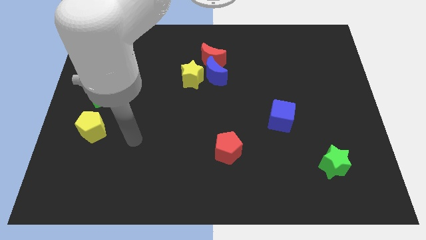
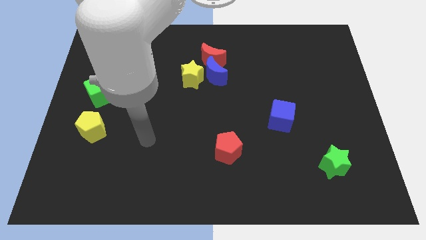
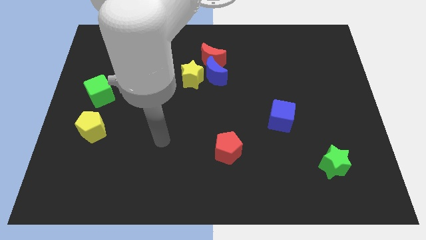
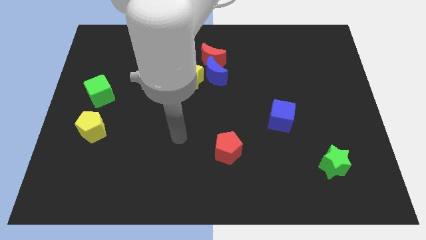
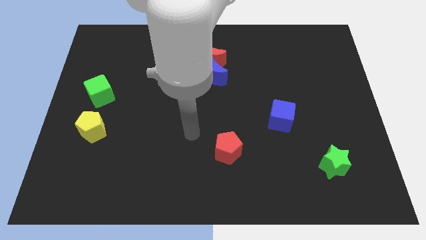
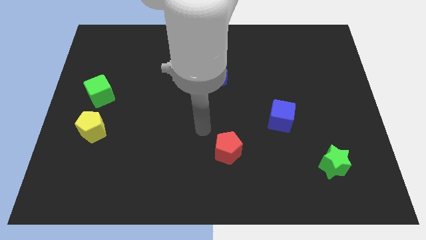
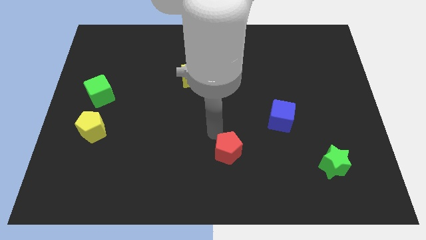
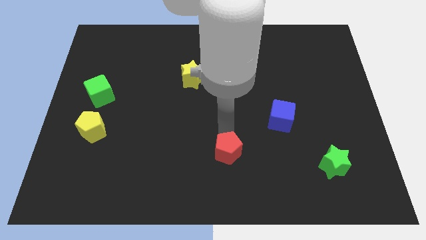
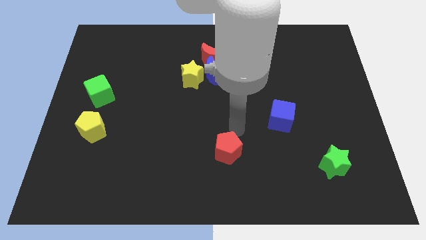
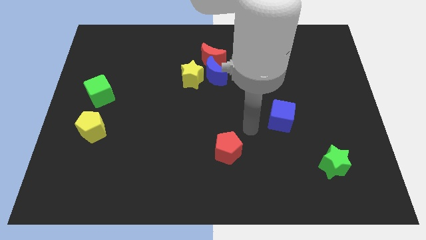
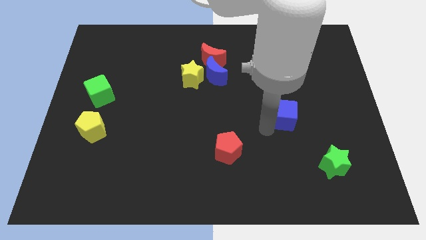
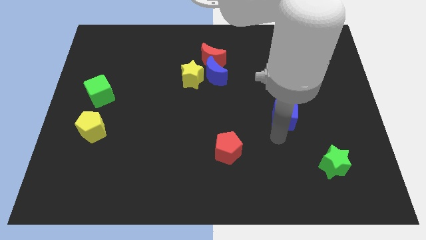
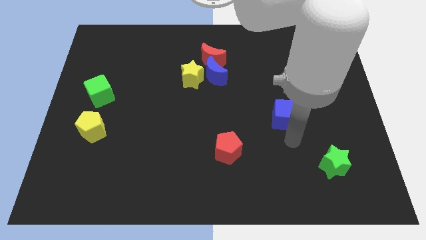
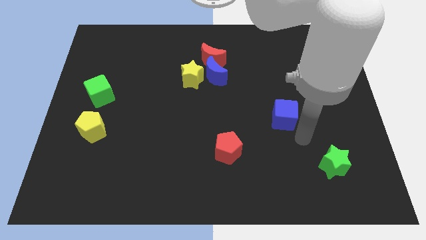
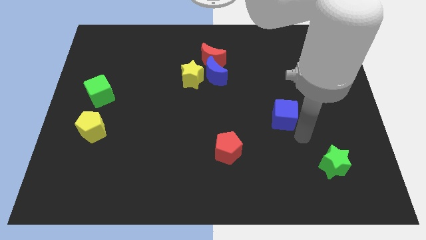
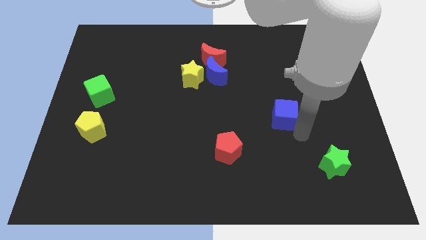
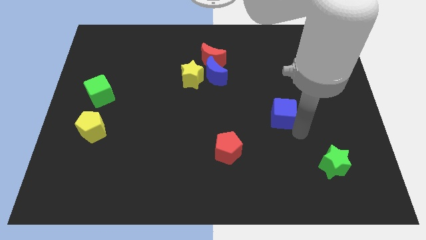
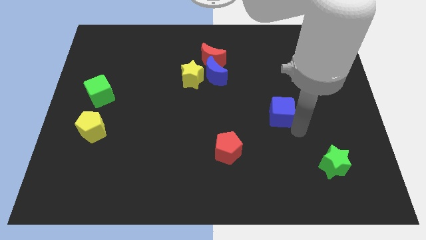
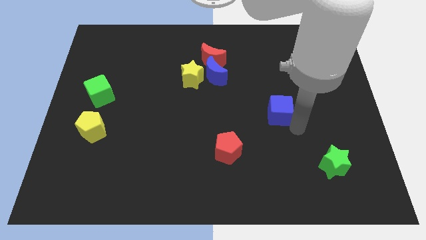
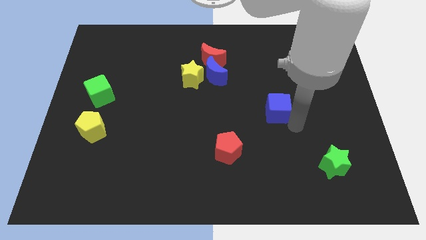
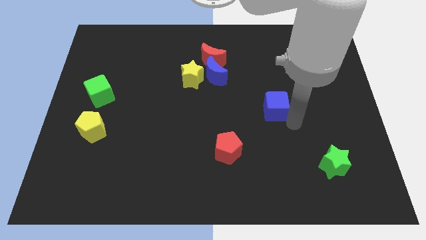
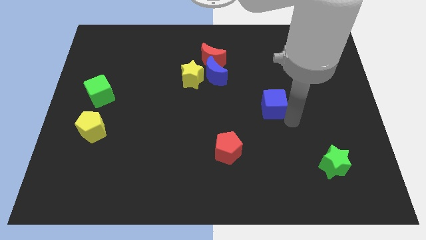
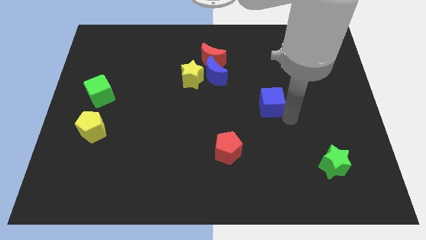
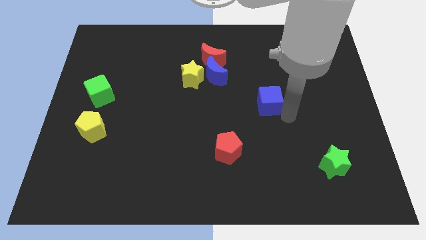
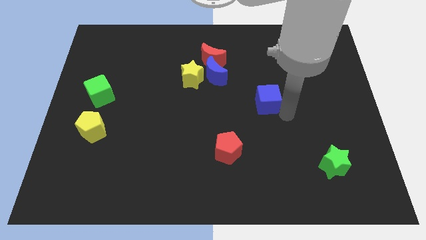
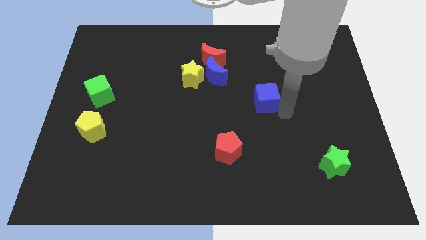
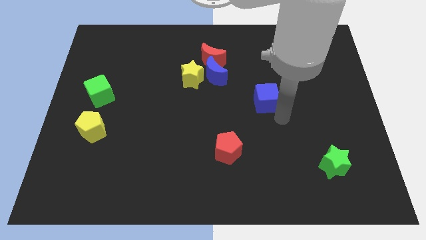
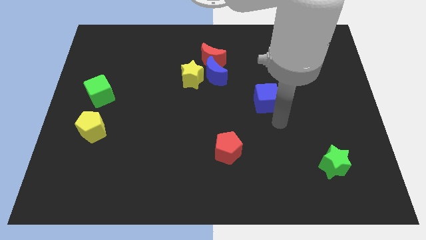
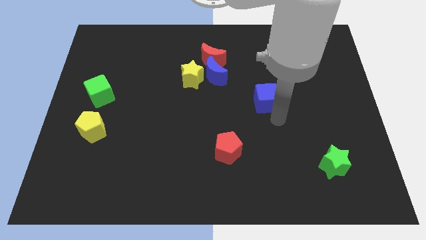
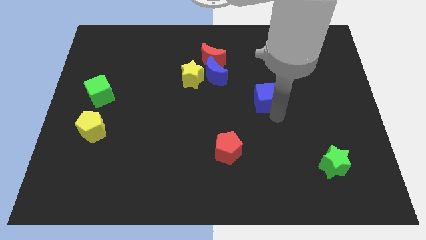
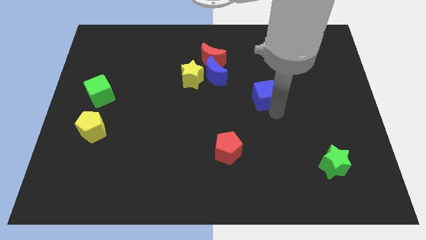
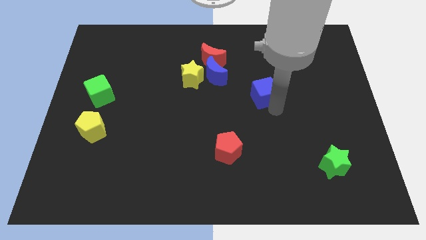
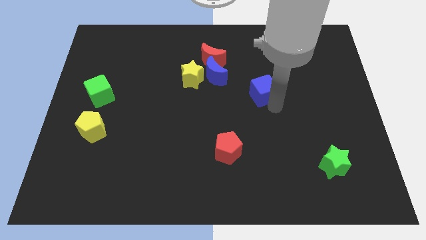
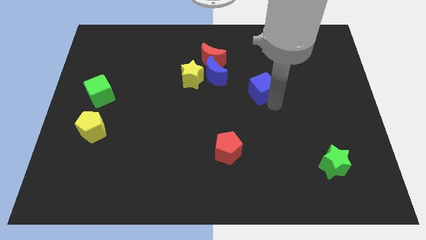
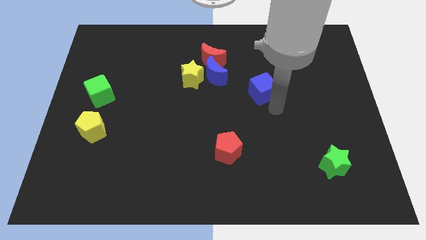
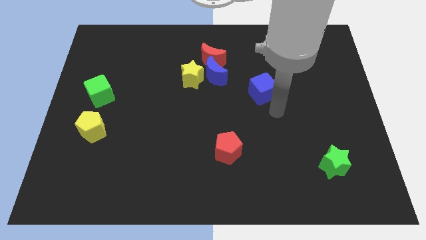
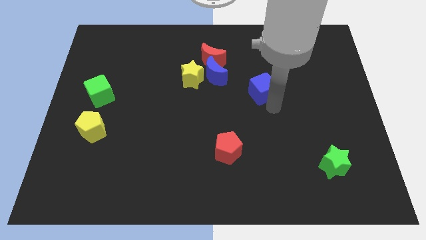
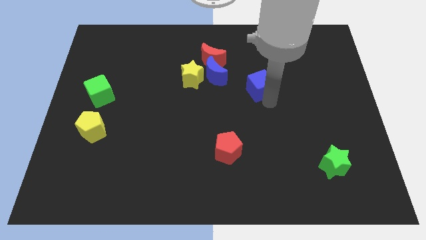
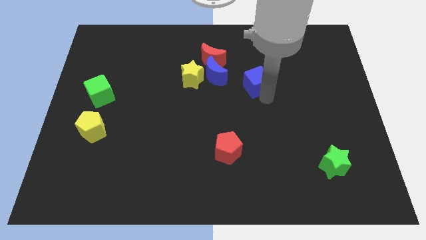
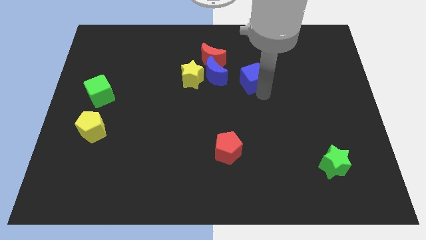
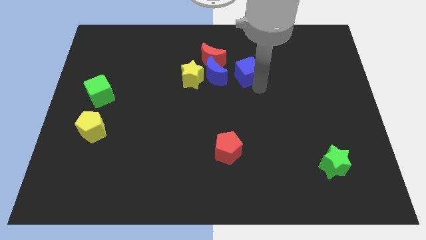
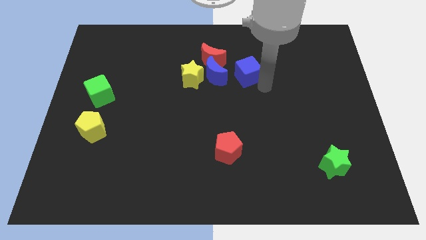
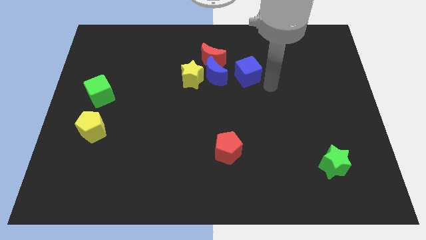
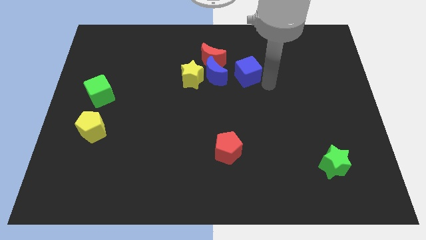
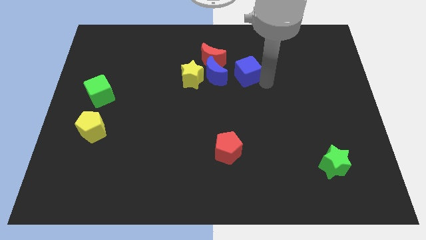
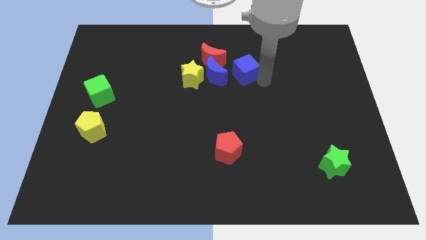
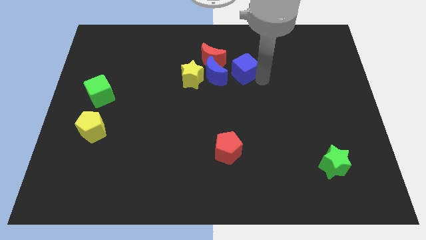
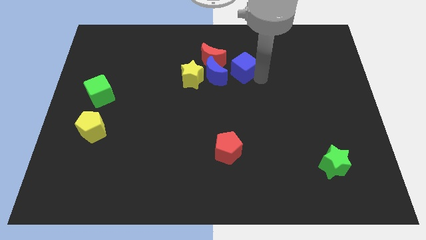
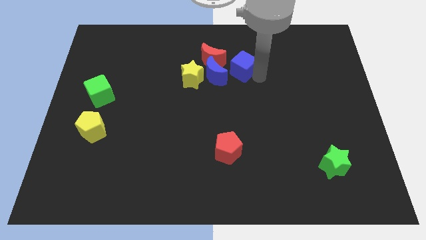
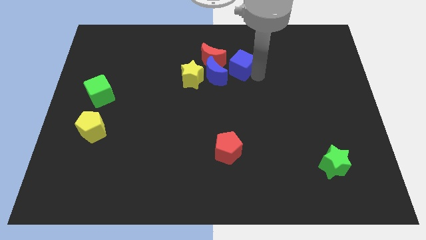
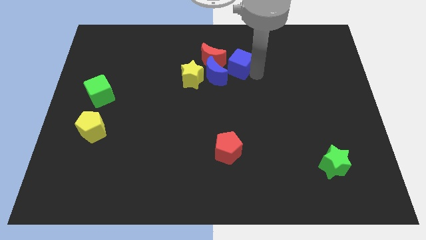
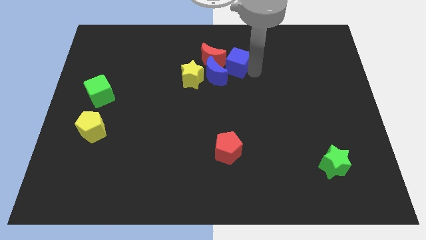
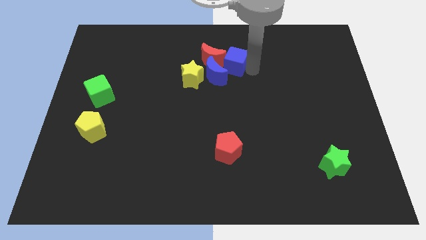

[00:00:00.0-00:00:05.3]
slide the blue cube close to the red moon
